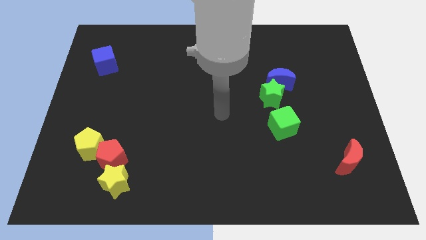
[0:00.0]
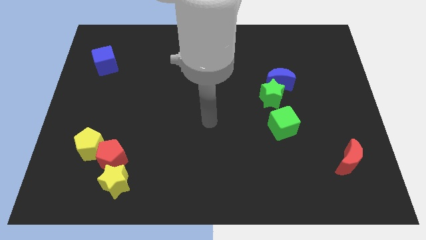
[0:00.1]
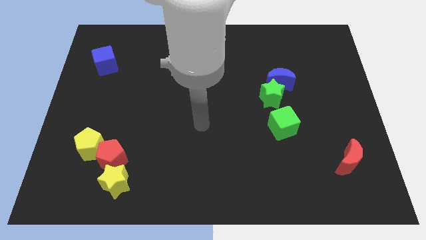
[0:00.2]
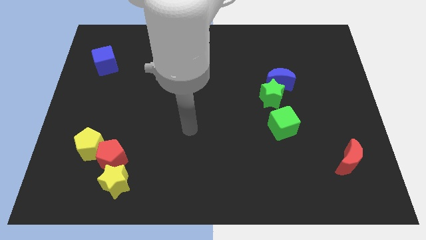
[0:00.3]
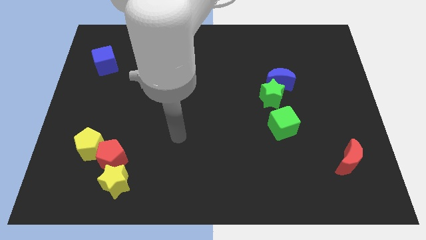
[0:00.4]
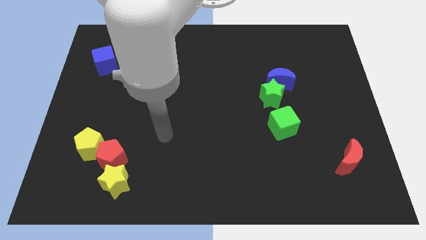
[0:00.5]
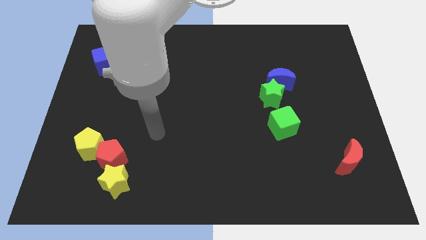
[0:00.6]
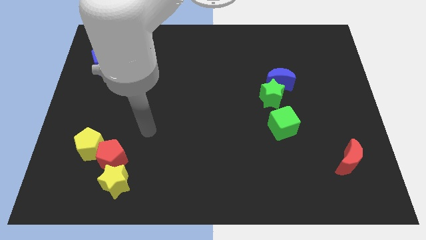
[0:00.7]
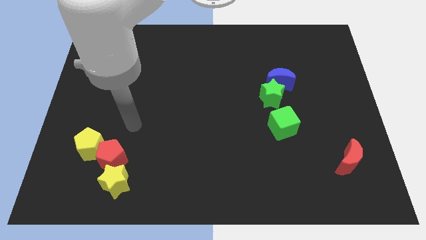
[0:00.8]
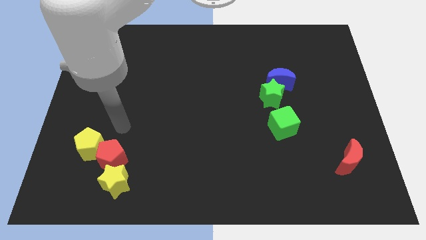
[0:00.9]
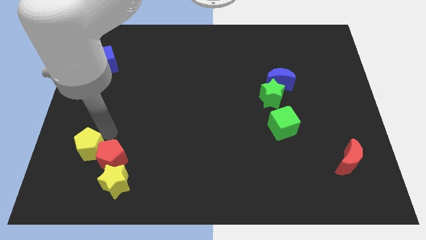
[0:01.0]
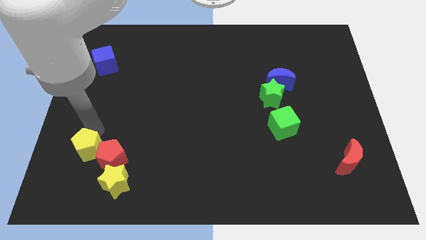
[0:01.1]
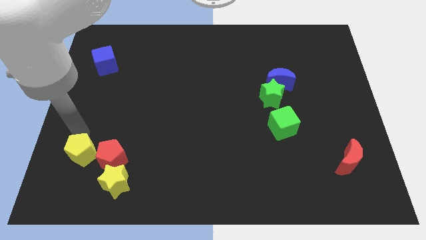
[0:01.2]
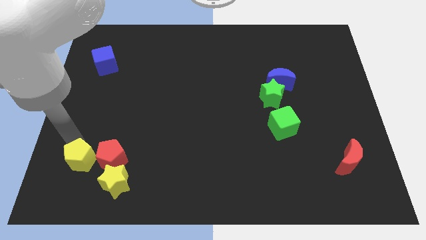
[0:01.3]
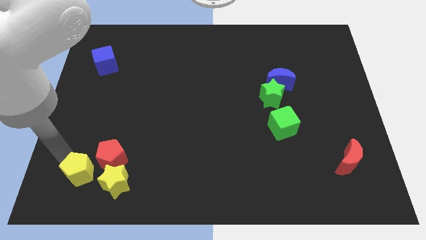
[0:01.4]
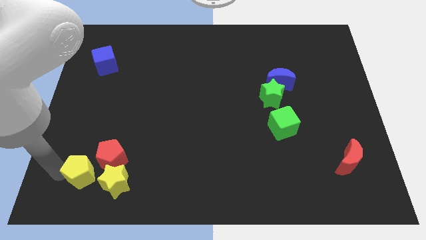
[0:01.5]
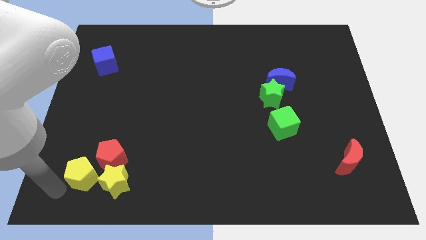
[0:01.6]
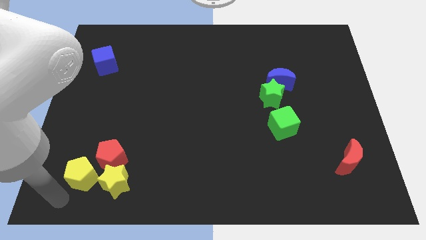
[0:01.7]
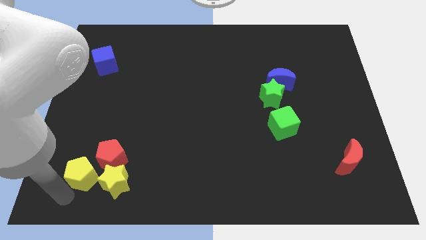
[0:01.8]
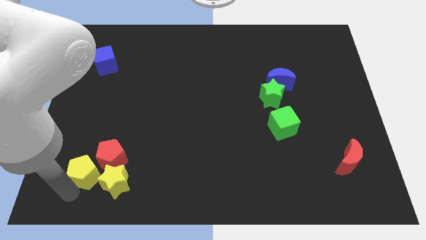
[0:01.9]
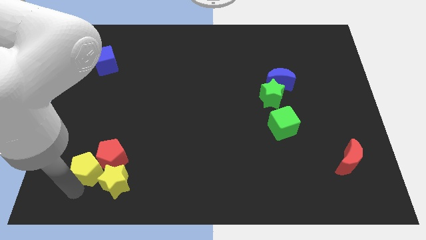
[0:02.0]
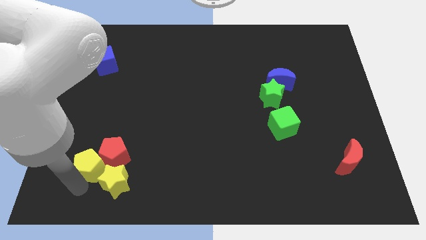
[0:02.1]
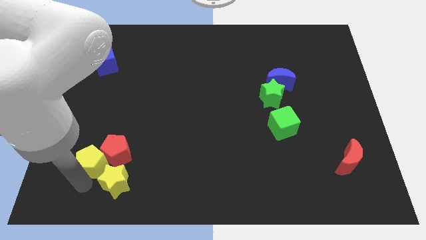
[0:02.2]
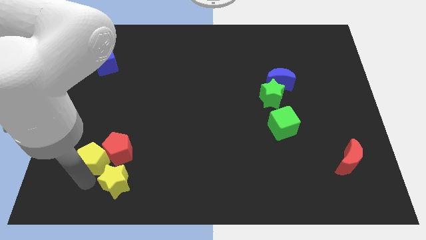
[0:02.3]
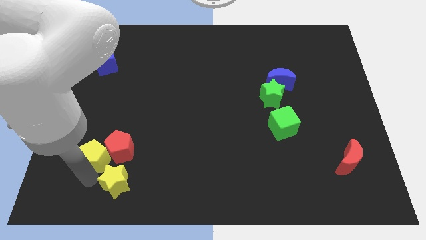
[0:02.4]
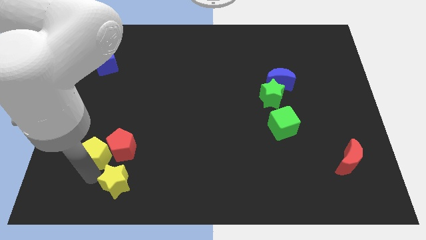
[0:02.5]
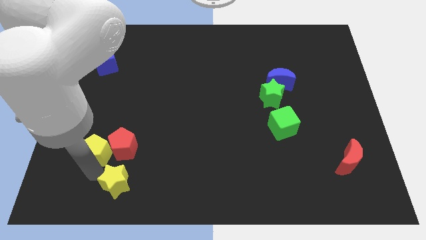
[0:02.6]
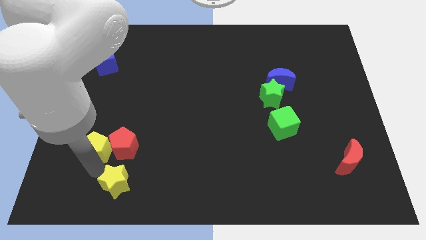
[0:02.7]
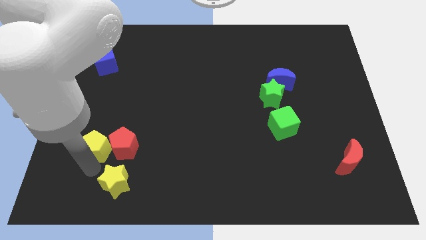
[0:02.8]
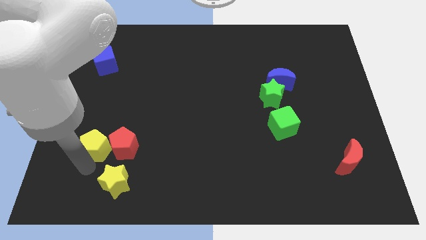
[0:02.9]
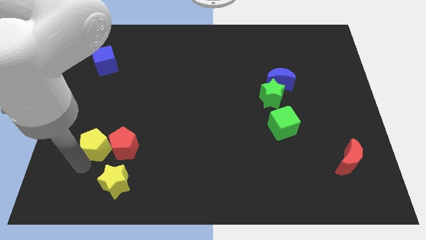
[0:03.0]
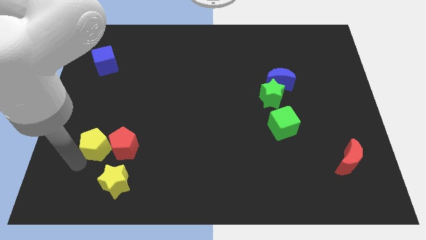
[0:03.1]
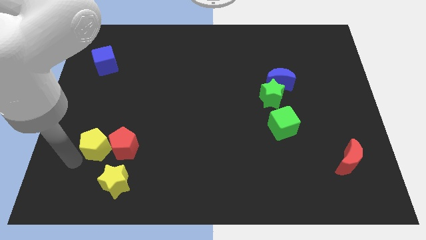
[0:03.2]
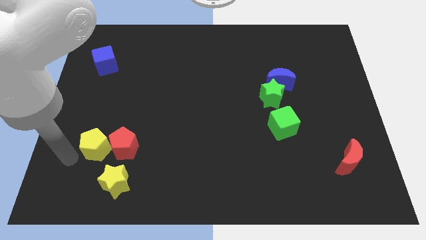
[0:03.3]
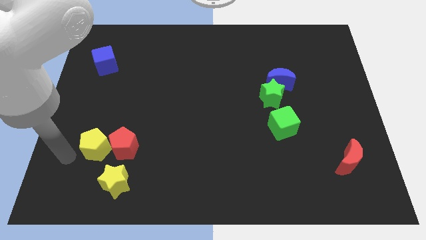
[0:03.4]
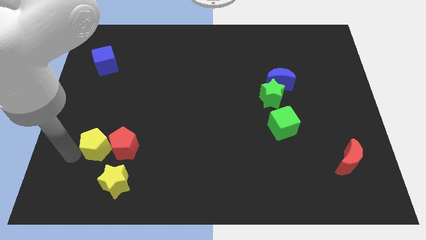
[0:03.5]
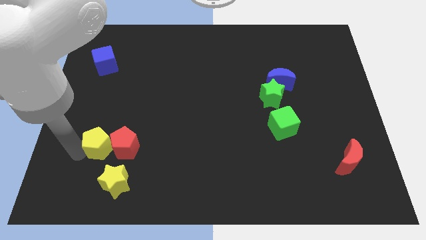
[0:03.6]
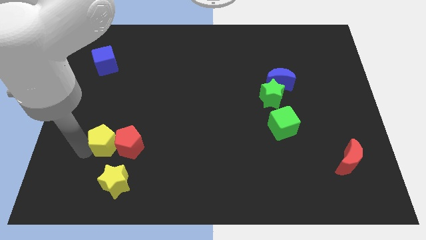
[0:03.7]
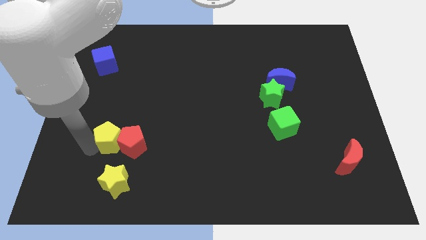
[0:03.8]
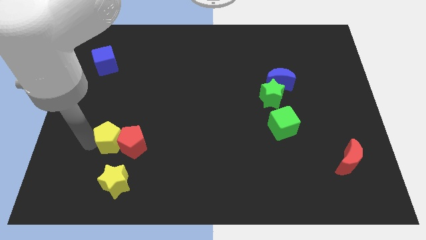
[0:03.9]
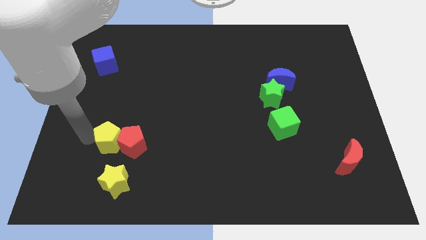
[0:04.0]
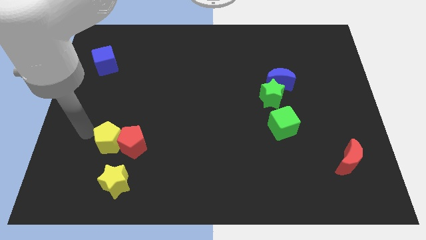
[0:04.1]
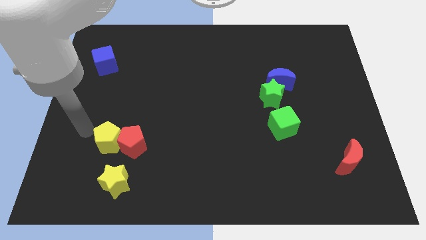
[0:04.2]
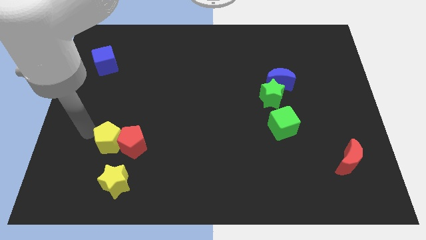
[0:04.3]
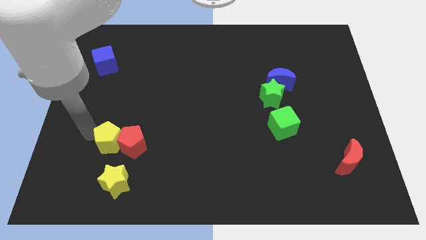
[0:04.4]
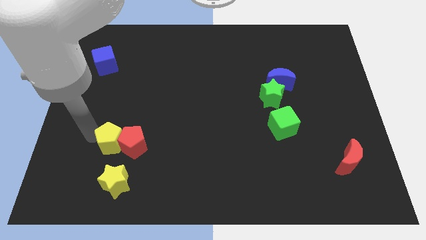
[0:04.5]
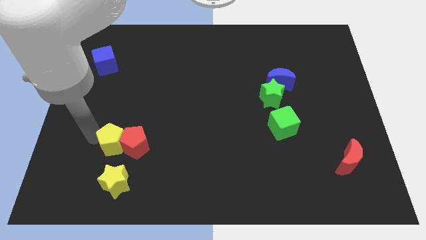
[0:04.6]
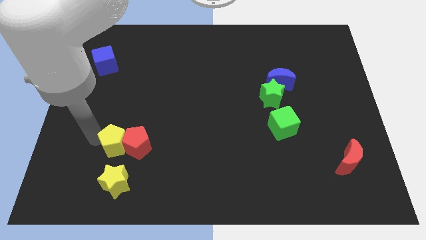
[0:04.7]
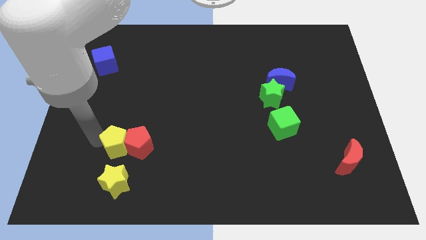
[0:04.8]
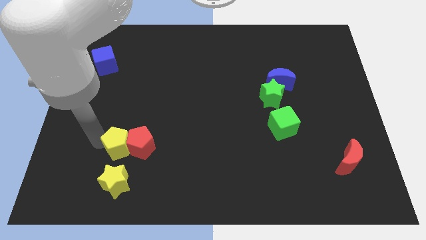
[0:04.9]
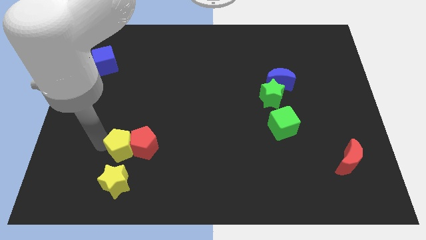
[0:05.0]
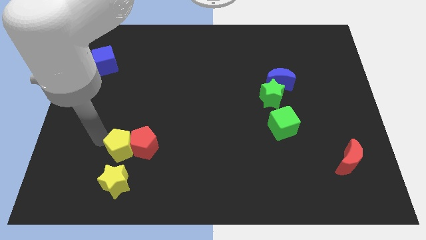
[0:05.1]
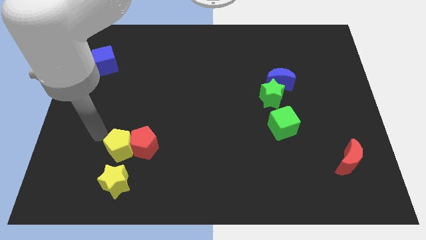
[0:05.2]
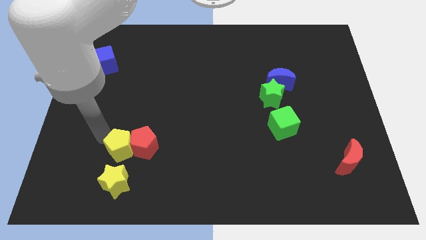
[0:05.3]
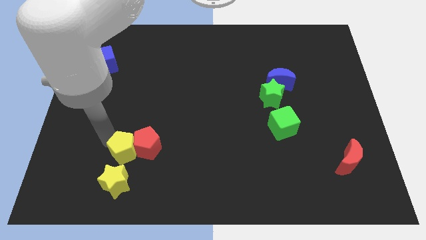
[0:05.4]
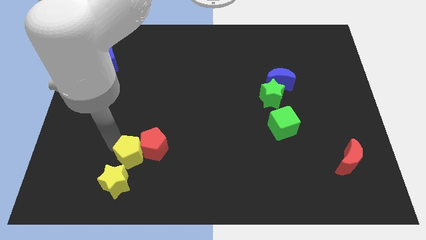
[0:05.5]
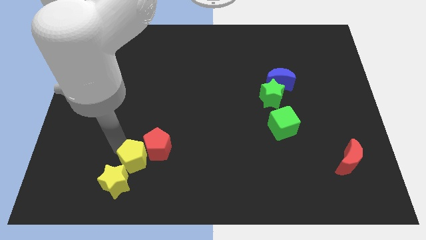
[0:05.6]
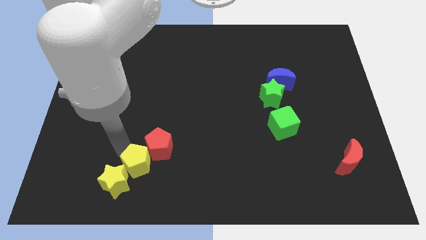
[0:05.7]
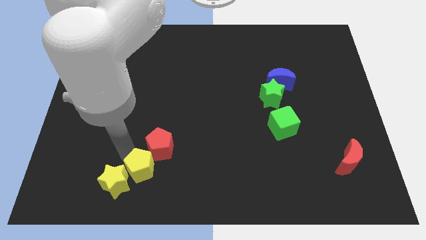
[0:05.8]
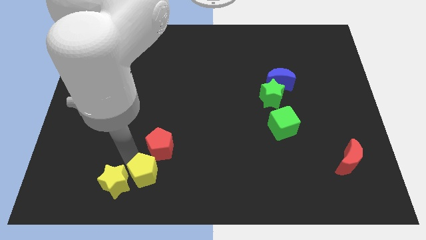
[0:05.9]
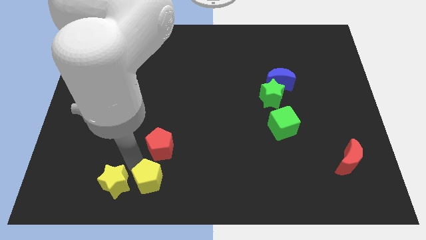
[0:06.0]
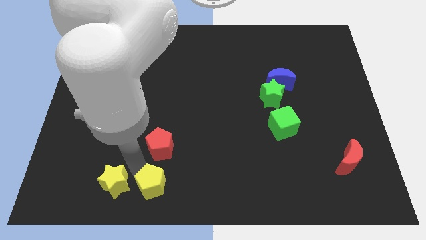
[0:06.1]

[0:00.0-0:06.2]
slide the yellow pentagon to the bottom

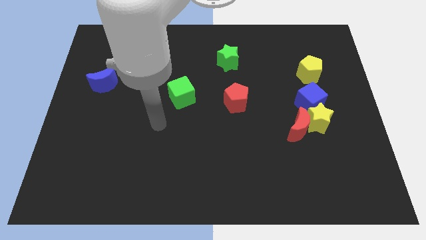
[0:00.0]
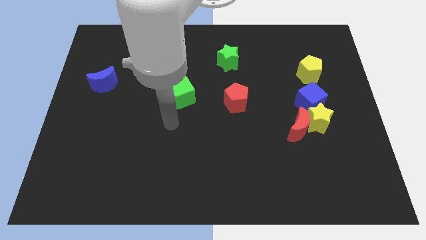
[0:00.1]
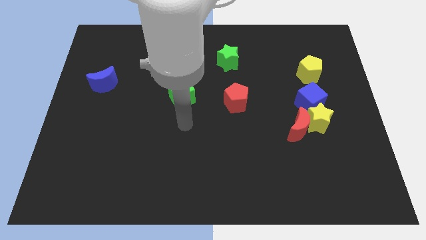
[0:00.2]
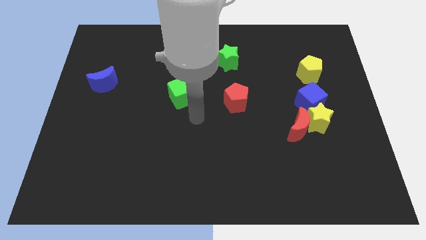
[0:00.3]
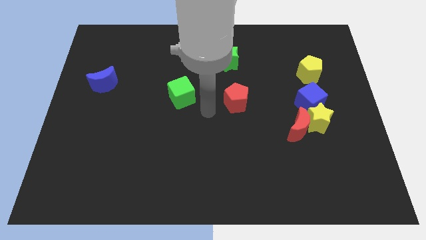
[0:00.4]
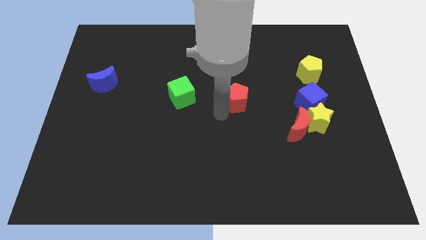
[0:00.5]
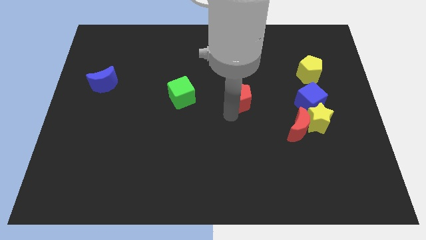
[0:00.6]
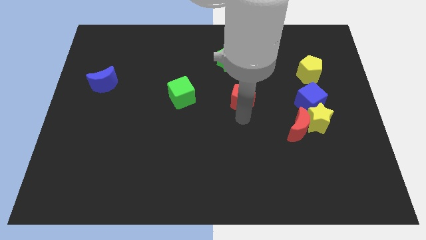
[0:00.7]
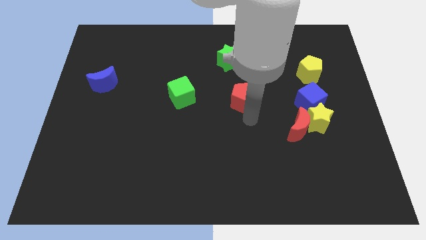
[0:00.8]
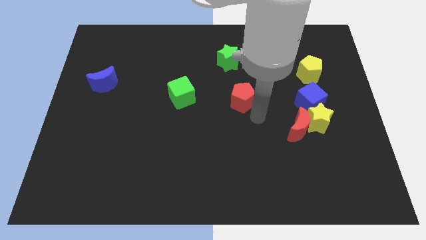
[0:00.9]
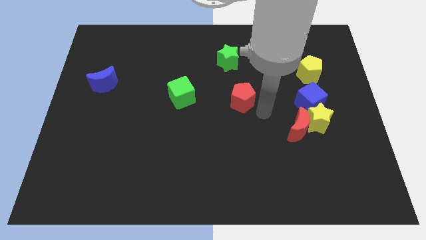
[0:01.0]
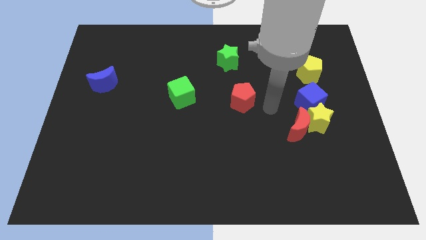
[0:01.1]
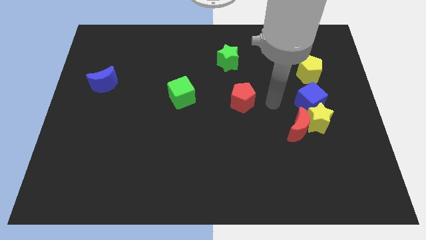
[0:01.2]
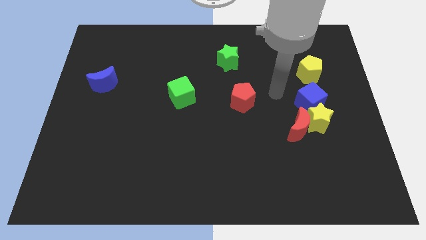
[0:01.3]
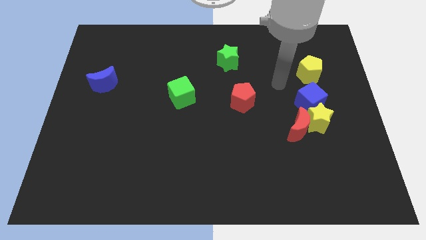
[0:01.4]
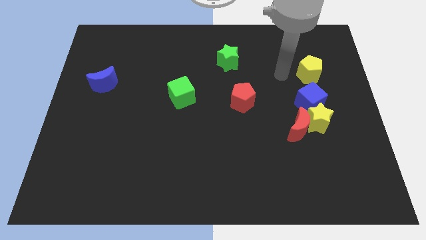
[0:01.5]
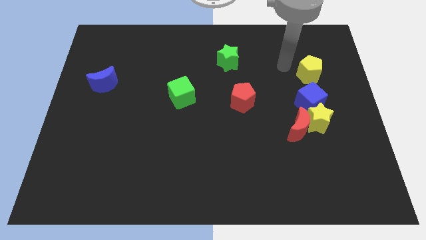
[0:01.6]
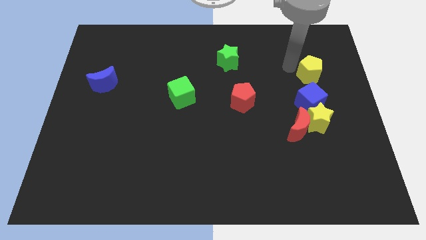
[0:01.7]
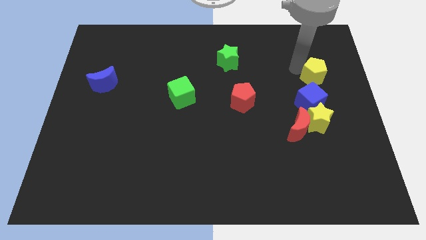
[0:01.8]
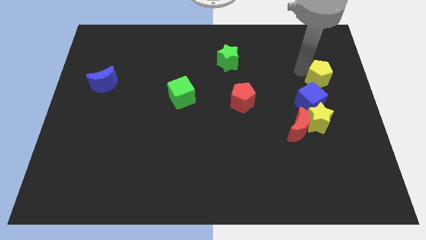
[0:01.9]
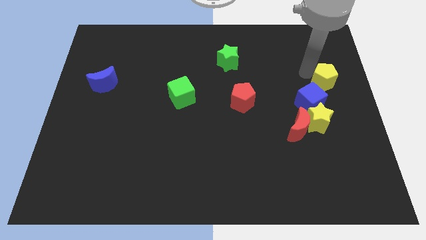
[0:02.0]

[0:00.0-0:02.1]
push the yellow pentagon to the center right
